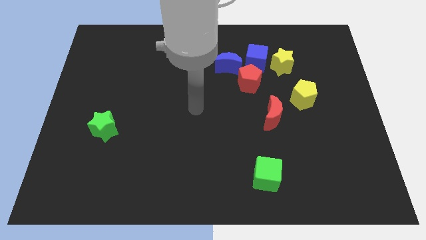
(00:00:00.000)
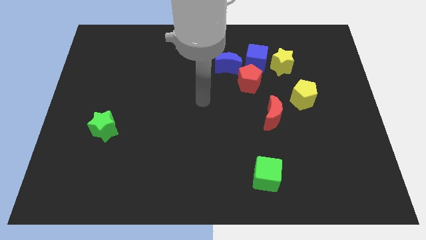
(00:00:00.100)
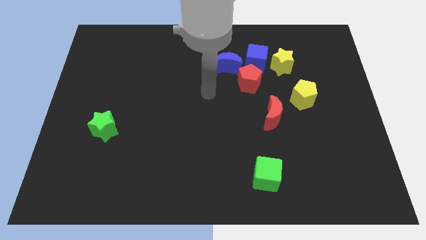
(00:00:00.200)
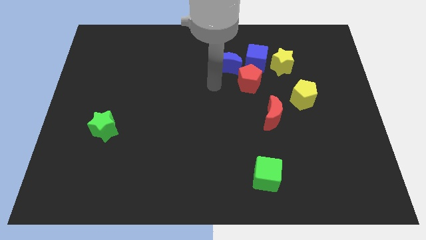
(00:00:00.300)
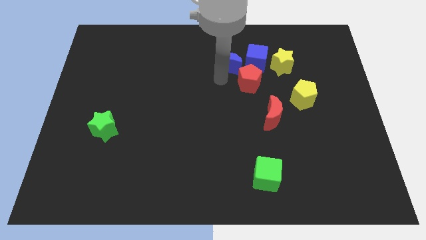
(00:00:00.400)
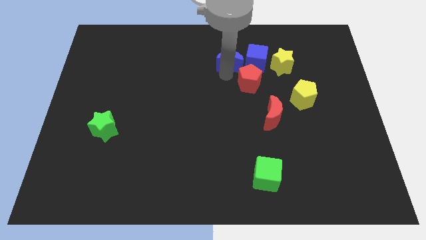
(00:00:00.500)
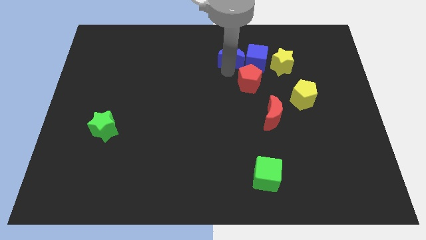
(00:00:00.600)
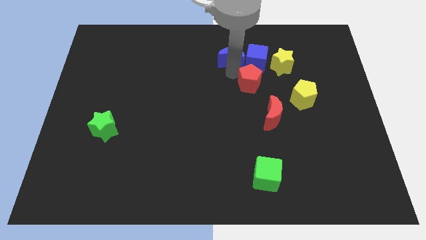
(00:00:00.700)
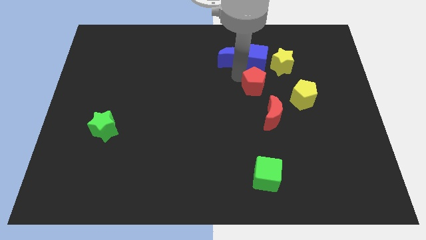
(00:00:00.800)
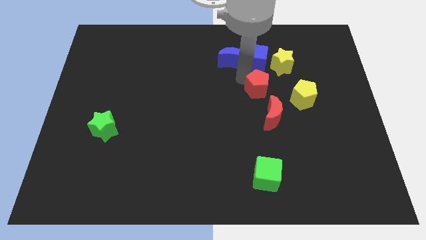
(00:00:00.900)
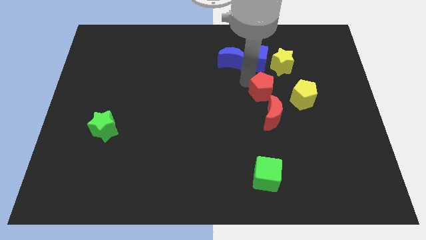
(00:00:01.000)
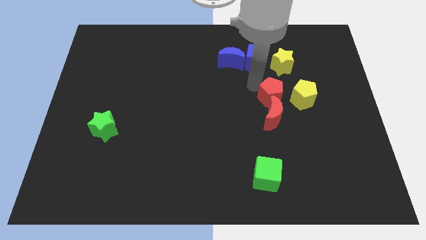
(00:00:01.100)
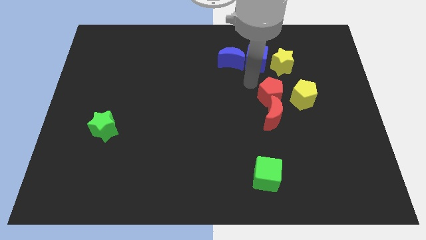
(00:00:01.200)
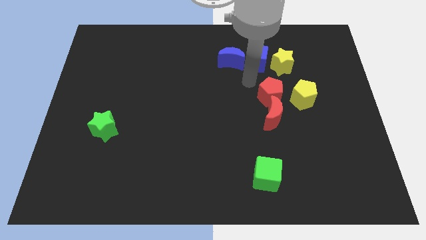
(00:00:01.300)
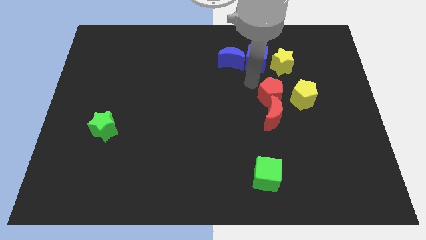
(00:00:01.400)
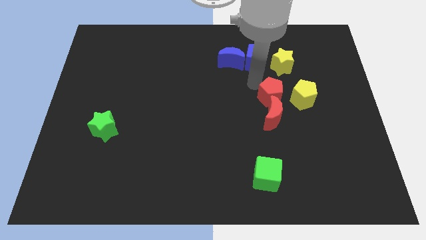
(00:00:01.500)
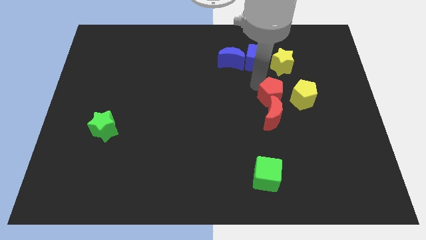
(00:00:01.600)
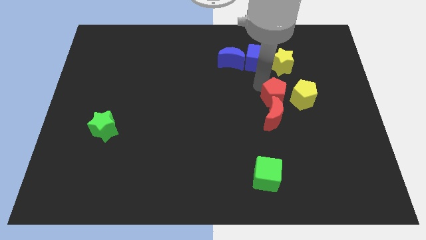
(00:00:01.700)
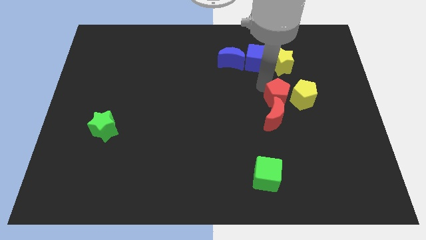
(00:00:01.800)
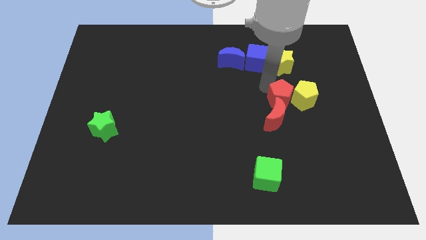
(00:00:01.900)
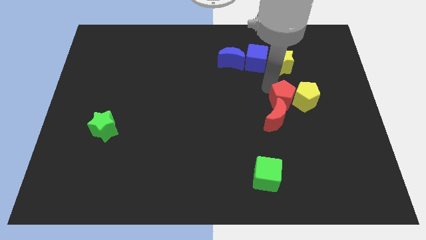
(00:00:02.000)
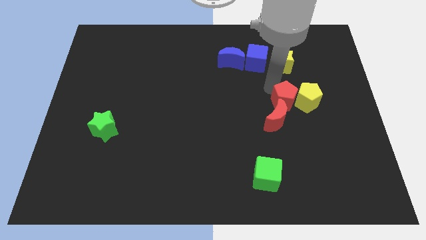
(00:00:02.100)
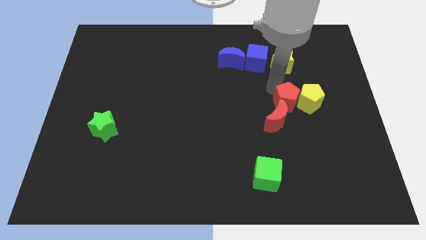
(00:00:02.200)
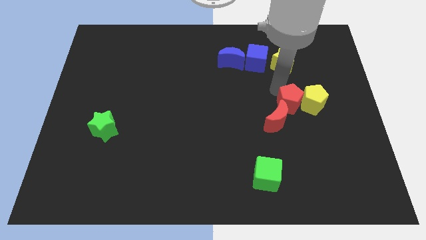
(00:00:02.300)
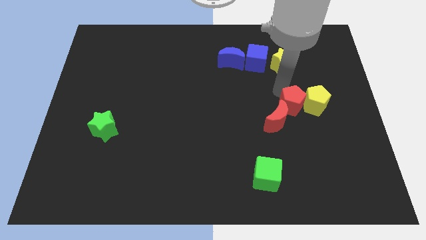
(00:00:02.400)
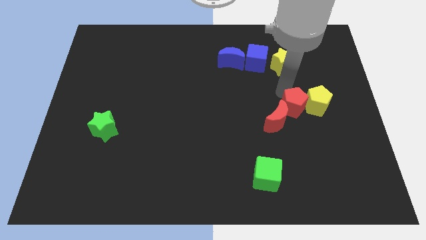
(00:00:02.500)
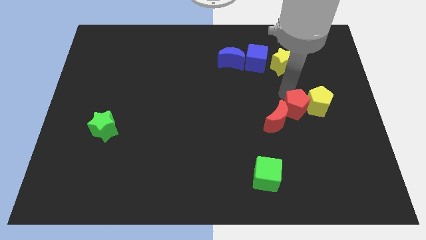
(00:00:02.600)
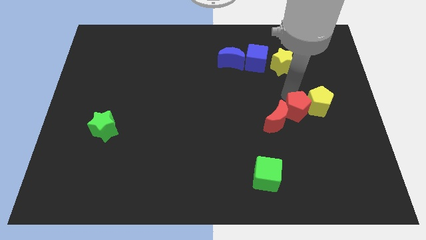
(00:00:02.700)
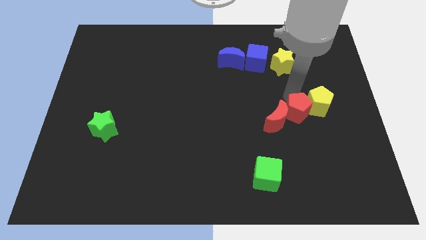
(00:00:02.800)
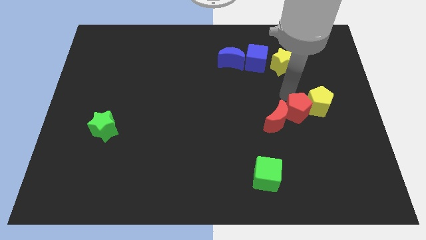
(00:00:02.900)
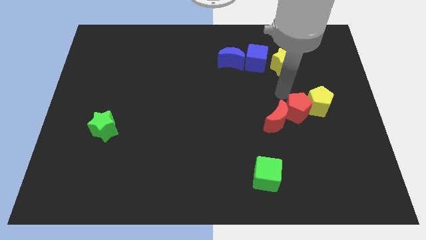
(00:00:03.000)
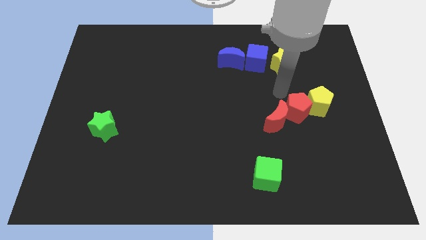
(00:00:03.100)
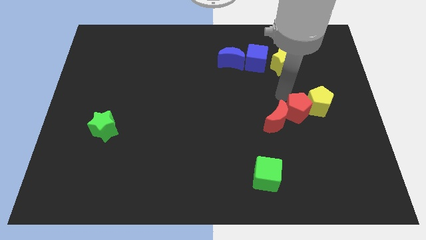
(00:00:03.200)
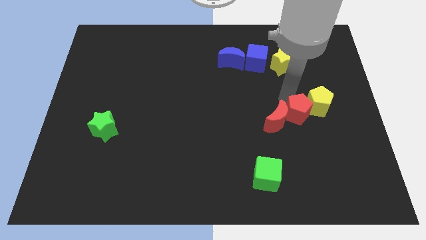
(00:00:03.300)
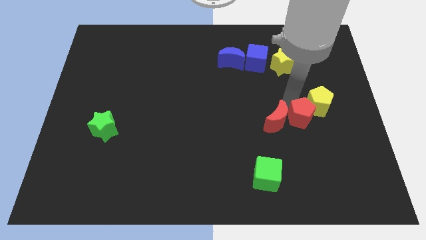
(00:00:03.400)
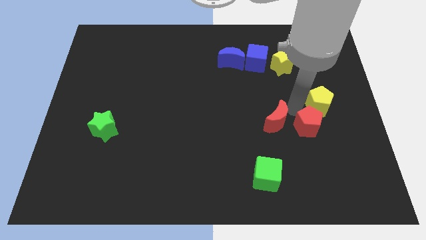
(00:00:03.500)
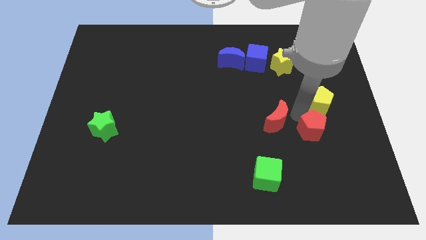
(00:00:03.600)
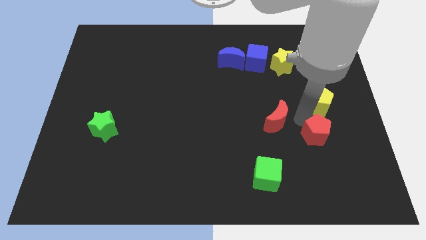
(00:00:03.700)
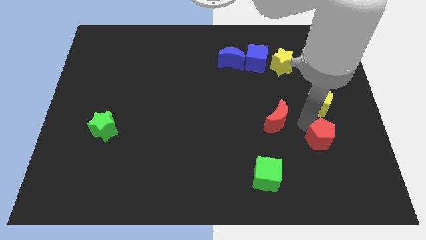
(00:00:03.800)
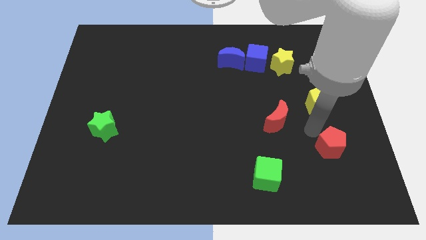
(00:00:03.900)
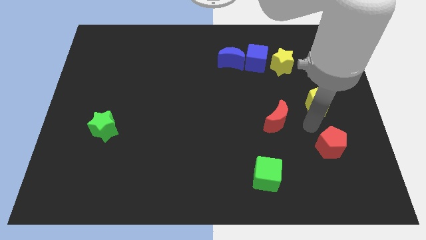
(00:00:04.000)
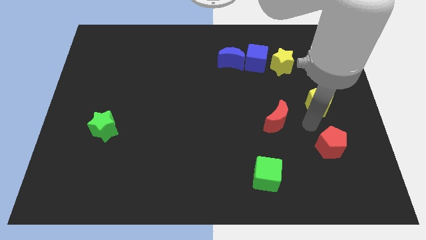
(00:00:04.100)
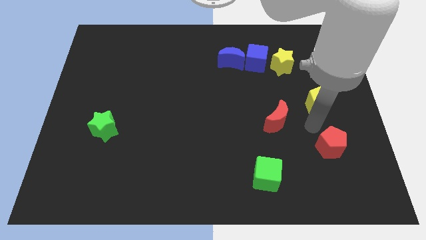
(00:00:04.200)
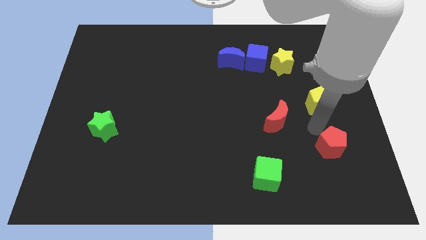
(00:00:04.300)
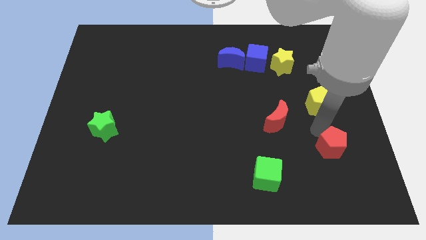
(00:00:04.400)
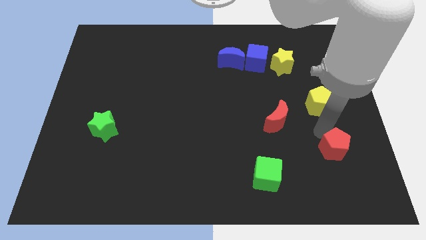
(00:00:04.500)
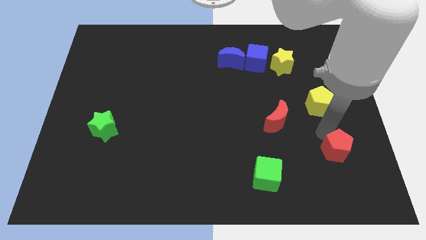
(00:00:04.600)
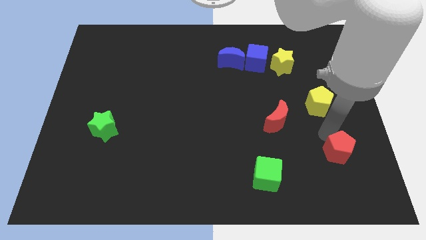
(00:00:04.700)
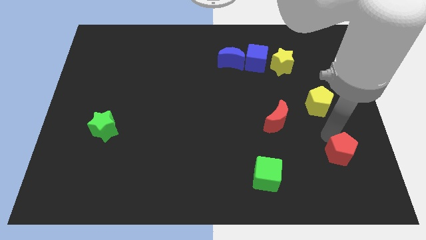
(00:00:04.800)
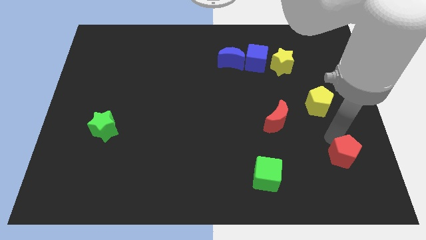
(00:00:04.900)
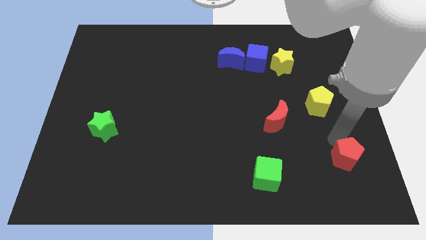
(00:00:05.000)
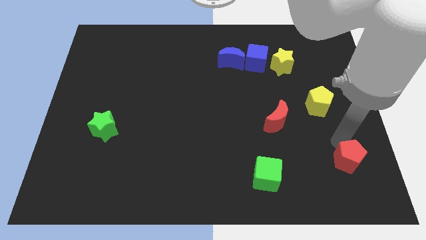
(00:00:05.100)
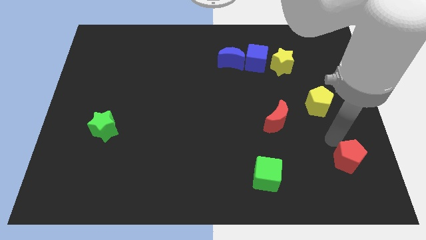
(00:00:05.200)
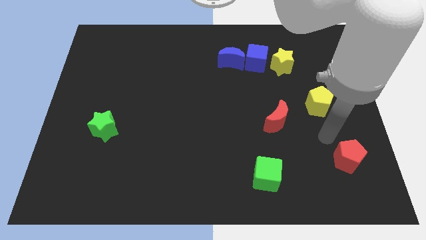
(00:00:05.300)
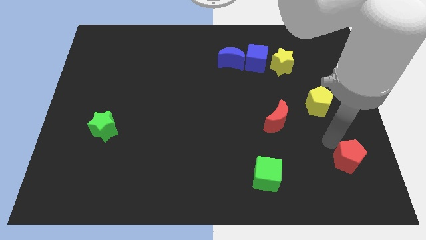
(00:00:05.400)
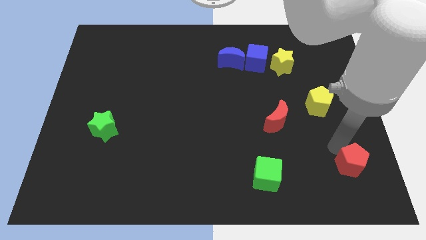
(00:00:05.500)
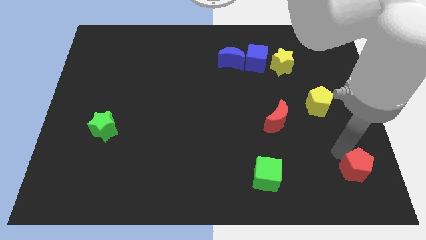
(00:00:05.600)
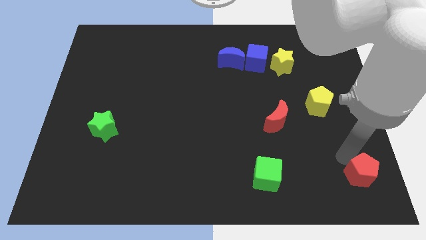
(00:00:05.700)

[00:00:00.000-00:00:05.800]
put the red pentagon to the bottom right corner

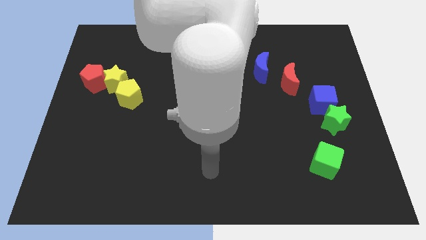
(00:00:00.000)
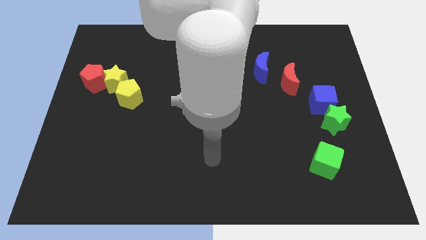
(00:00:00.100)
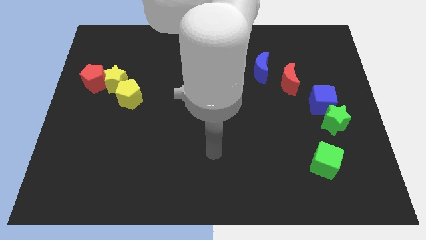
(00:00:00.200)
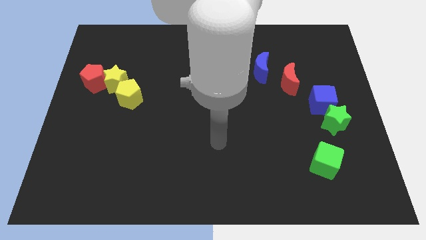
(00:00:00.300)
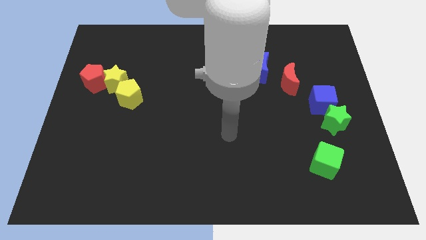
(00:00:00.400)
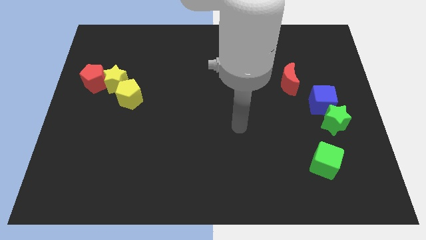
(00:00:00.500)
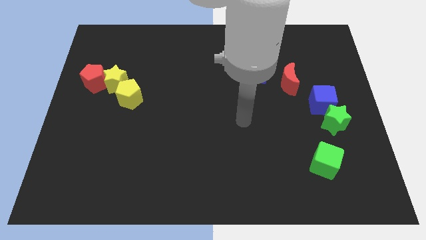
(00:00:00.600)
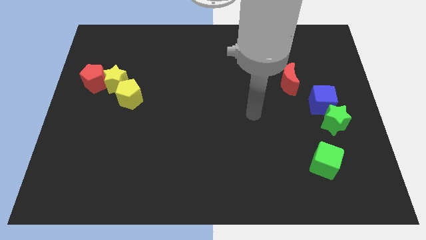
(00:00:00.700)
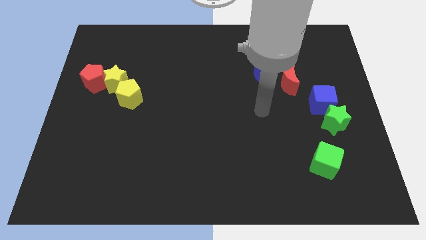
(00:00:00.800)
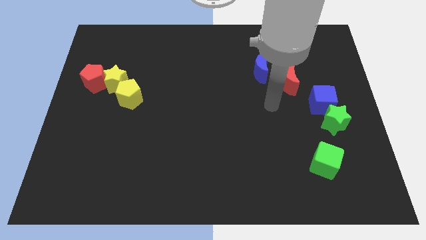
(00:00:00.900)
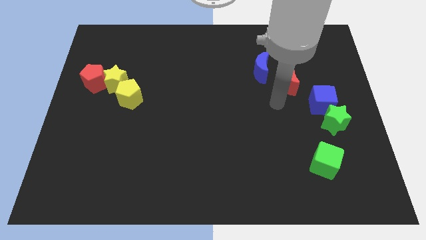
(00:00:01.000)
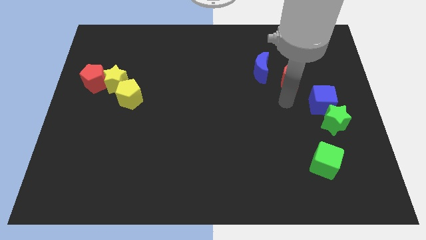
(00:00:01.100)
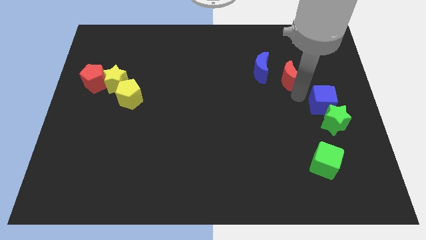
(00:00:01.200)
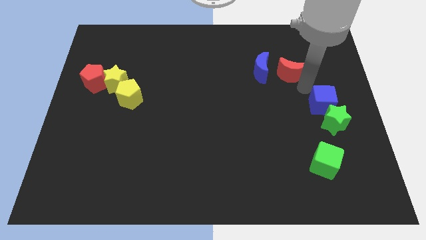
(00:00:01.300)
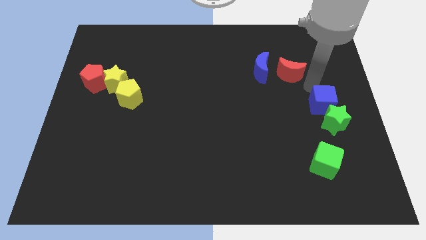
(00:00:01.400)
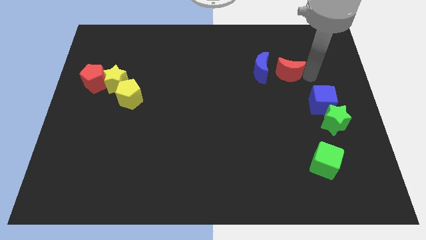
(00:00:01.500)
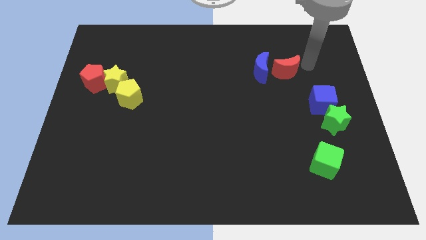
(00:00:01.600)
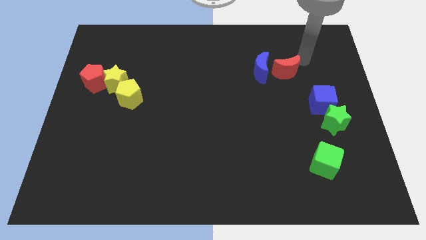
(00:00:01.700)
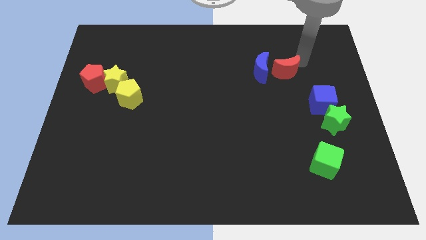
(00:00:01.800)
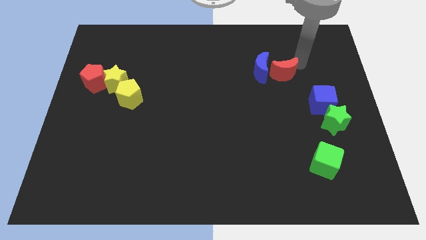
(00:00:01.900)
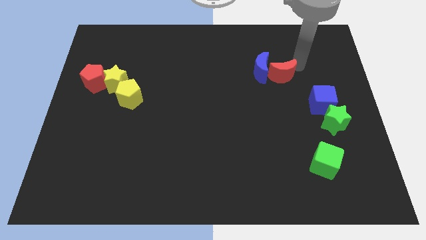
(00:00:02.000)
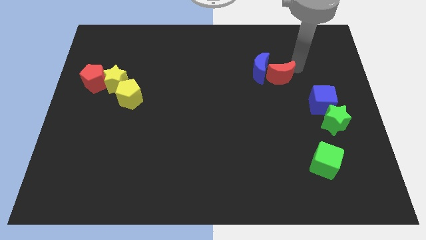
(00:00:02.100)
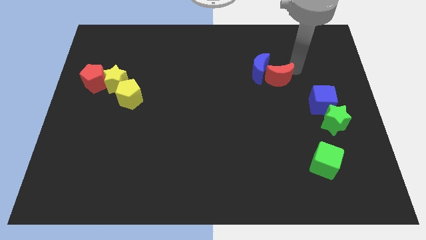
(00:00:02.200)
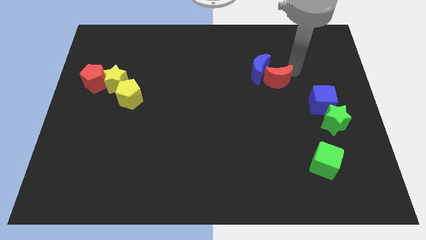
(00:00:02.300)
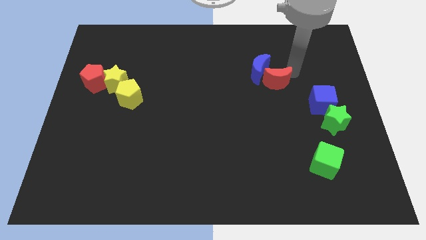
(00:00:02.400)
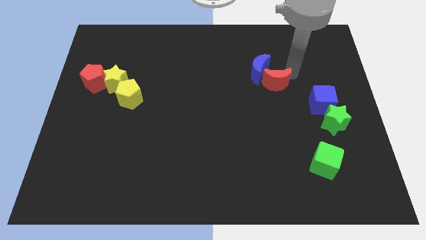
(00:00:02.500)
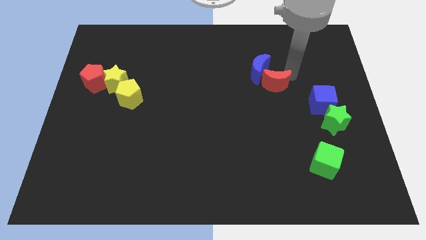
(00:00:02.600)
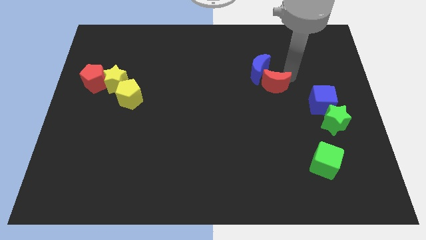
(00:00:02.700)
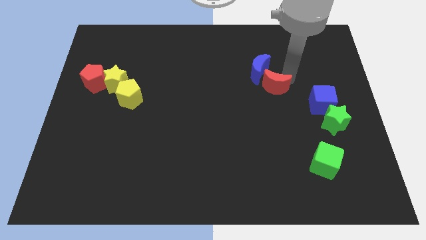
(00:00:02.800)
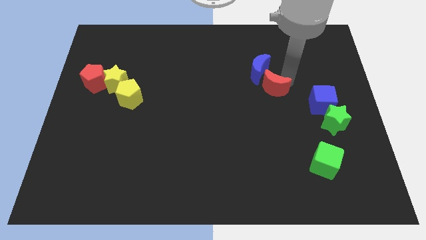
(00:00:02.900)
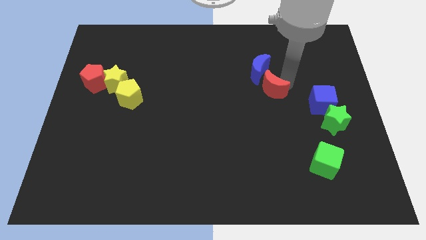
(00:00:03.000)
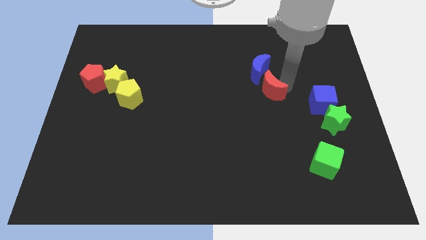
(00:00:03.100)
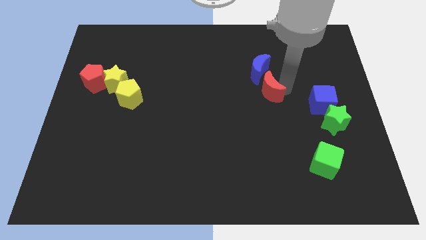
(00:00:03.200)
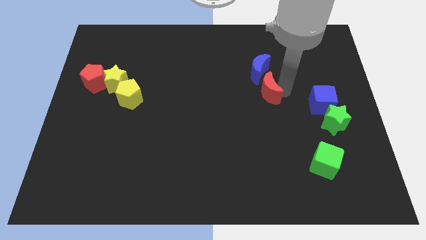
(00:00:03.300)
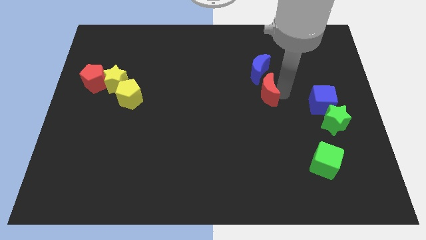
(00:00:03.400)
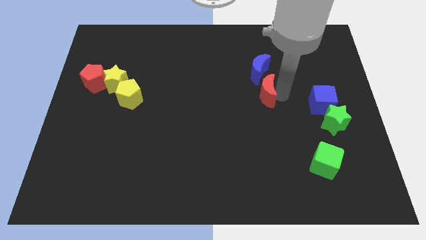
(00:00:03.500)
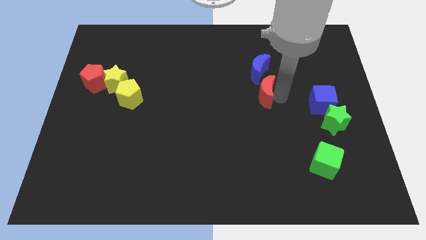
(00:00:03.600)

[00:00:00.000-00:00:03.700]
put the red moon to the middle
